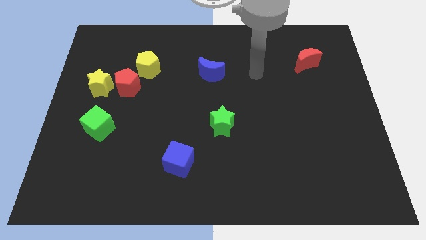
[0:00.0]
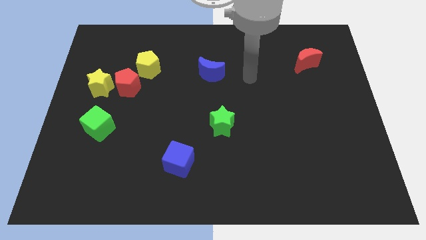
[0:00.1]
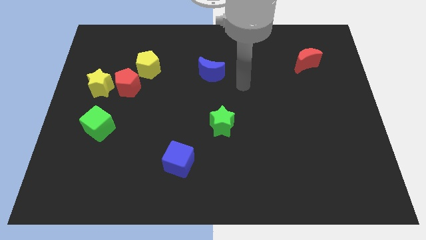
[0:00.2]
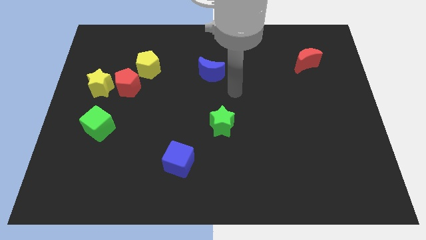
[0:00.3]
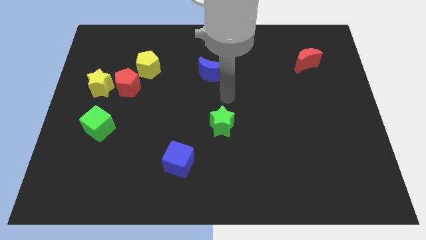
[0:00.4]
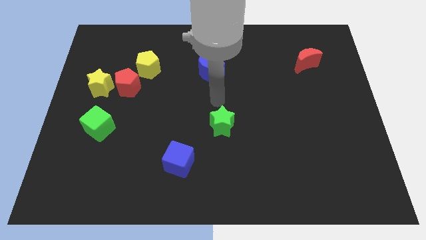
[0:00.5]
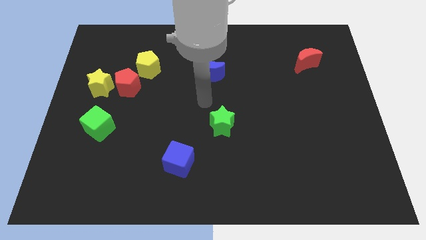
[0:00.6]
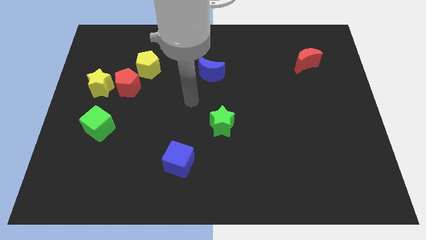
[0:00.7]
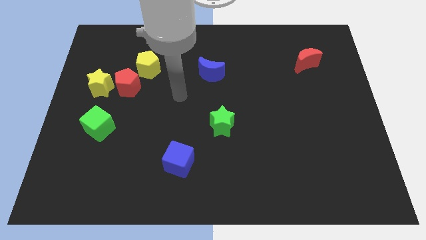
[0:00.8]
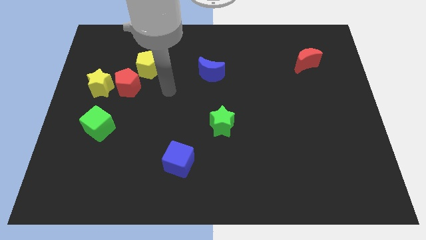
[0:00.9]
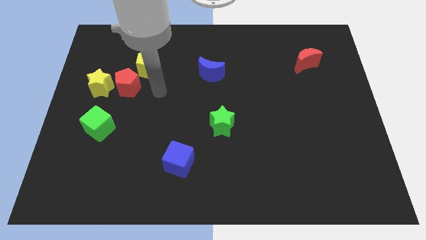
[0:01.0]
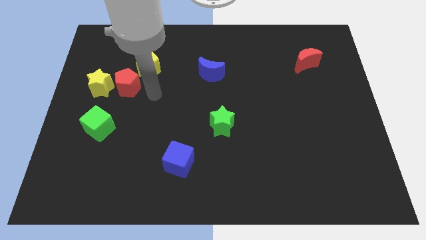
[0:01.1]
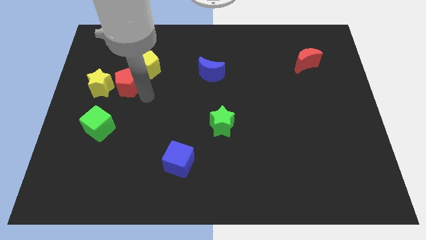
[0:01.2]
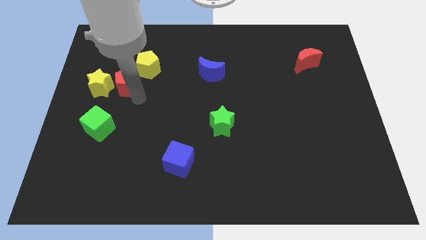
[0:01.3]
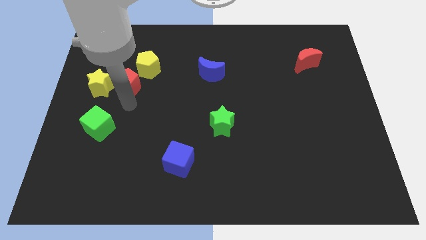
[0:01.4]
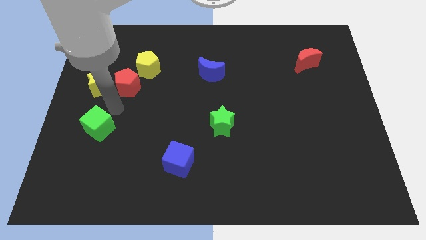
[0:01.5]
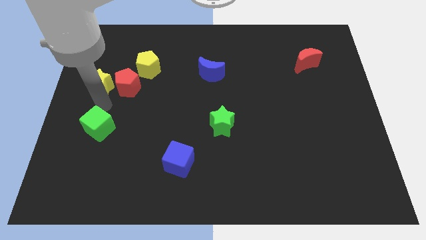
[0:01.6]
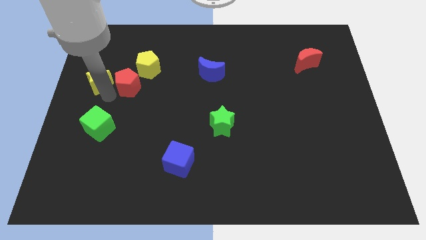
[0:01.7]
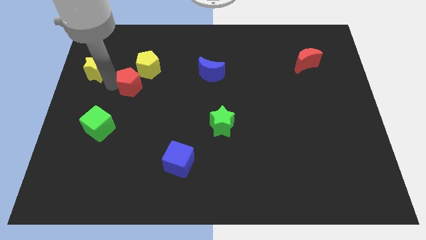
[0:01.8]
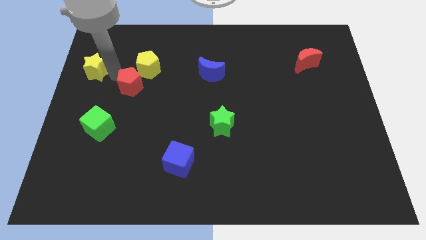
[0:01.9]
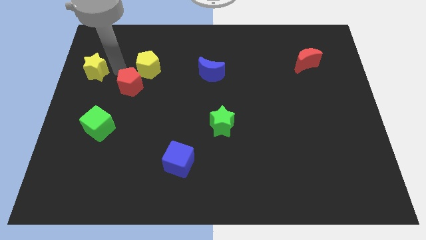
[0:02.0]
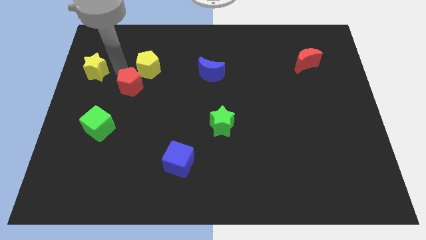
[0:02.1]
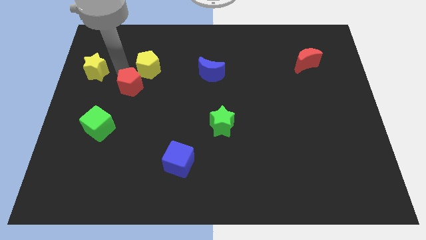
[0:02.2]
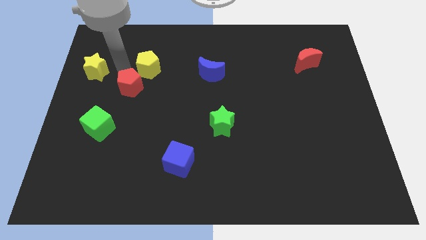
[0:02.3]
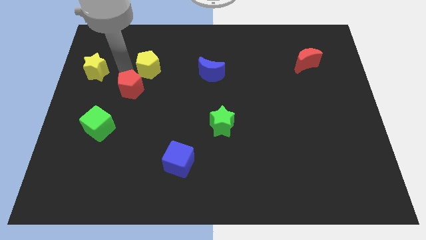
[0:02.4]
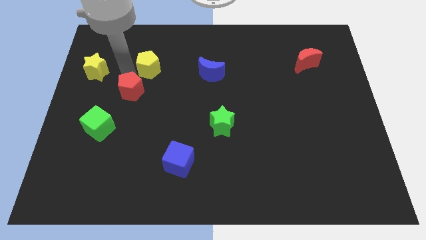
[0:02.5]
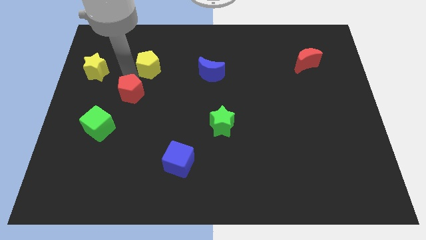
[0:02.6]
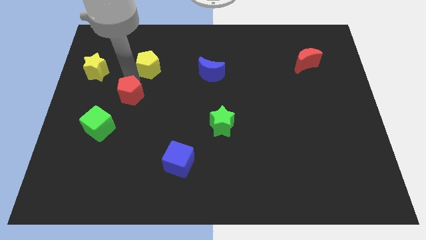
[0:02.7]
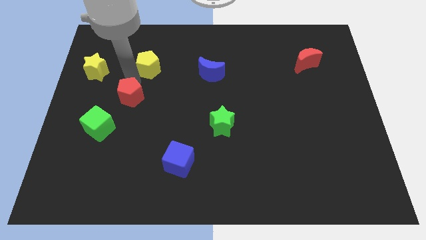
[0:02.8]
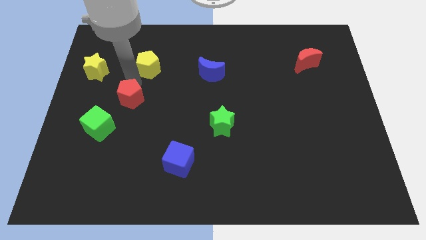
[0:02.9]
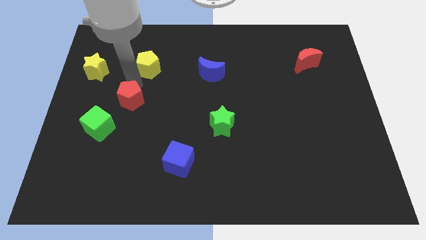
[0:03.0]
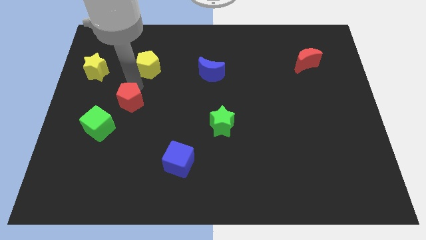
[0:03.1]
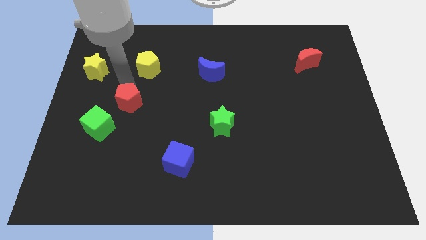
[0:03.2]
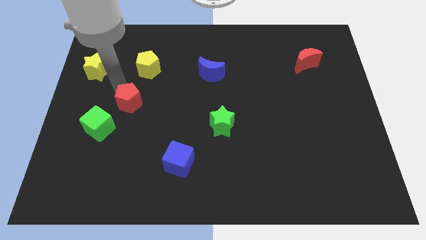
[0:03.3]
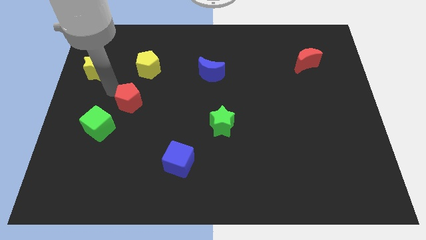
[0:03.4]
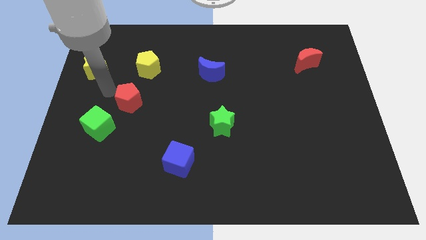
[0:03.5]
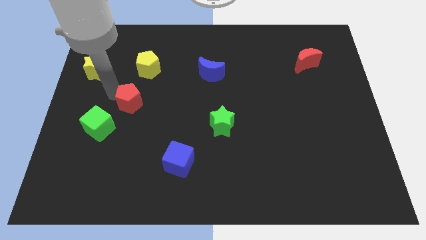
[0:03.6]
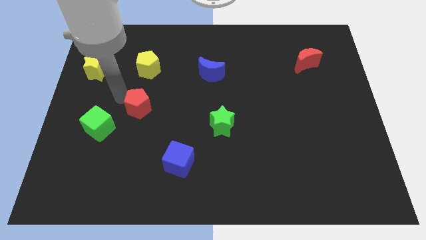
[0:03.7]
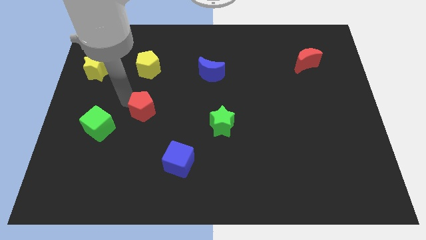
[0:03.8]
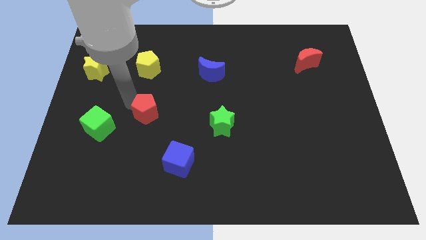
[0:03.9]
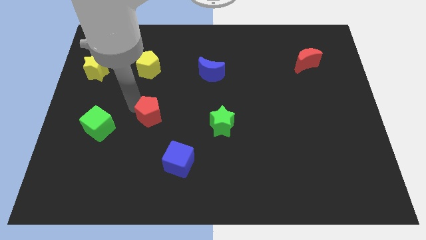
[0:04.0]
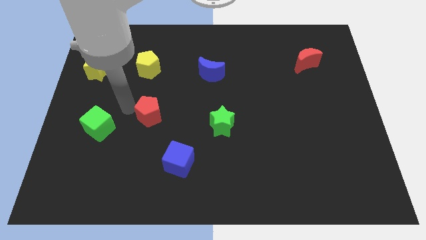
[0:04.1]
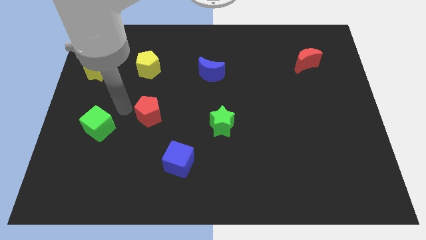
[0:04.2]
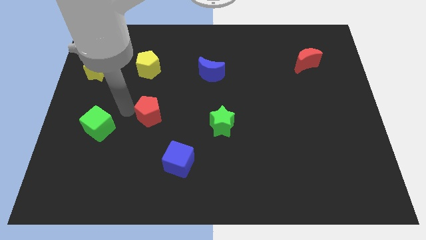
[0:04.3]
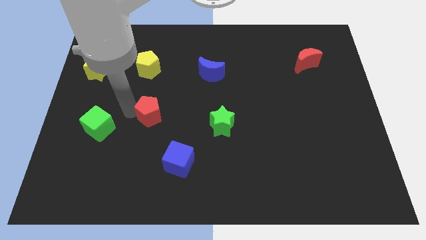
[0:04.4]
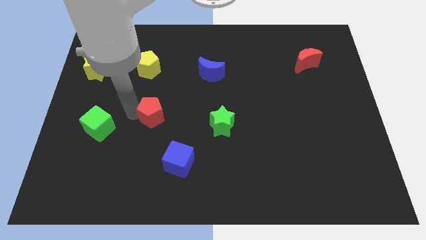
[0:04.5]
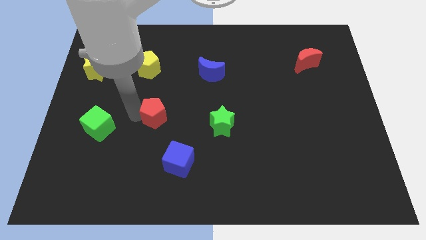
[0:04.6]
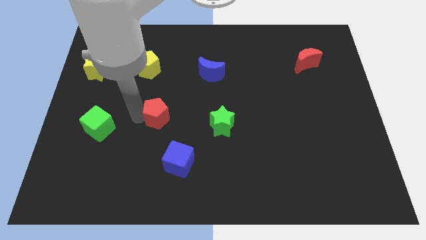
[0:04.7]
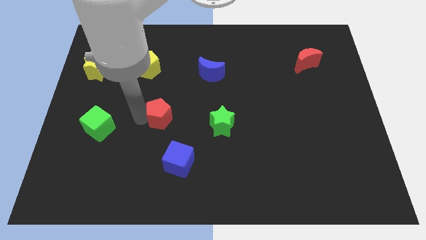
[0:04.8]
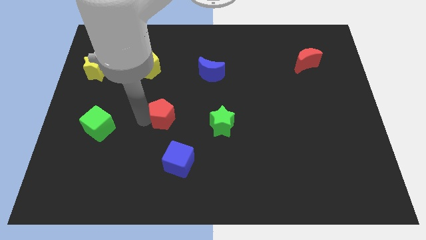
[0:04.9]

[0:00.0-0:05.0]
put the red pentagon above the blue cube

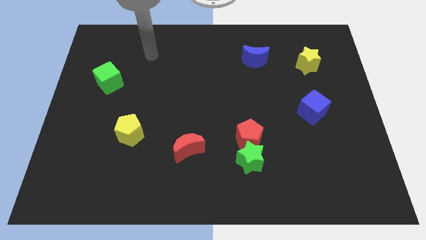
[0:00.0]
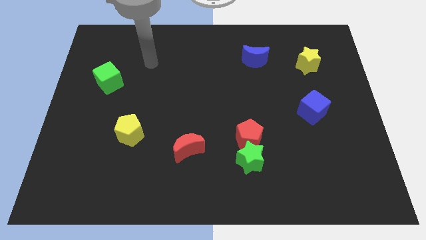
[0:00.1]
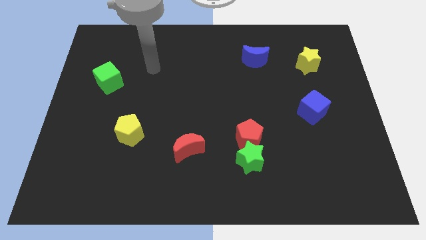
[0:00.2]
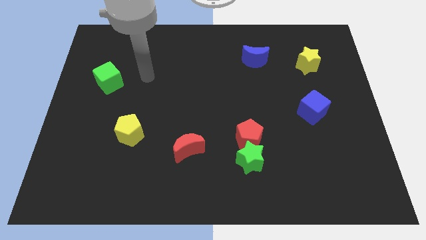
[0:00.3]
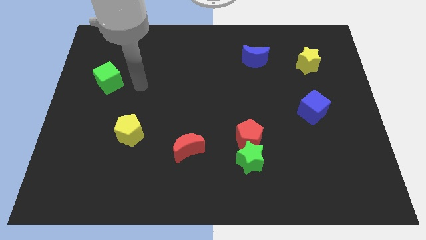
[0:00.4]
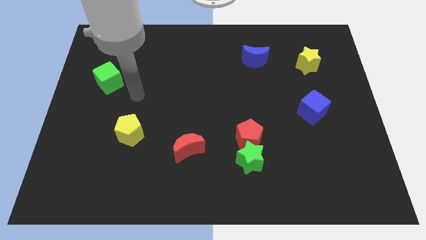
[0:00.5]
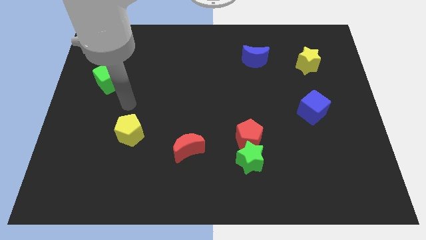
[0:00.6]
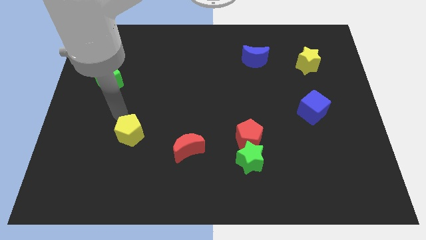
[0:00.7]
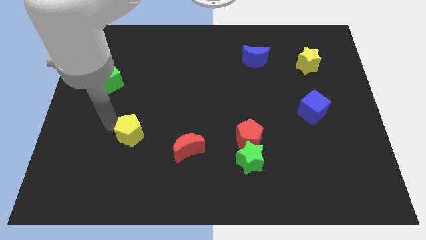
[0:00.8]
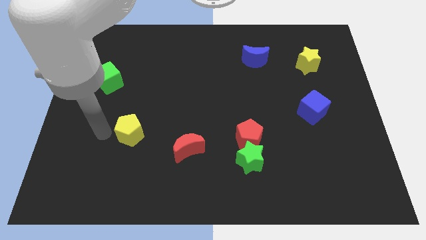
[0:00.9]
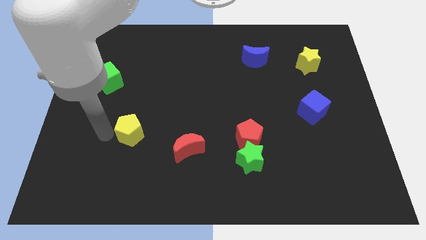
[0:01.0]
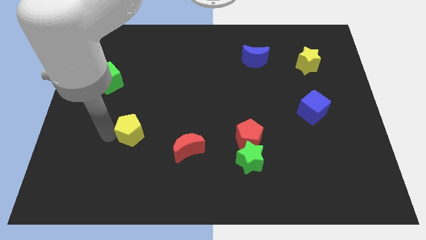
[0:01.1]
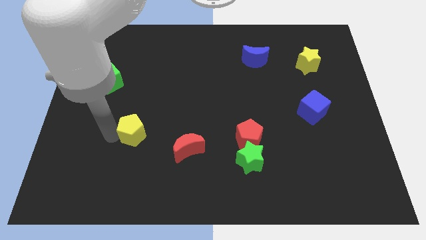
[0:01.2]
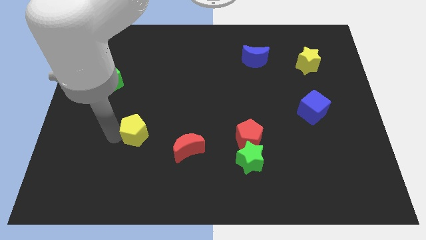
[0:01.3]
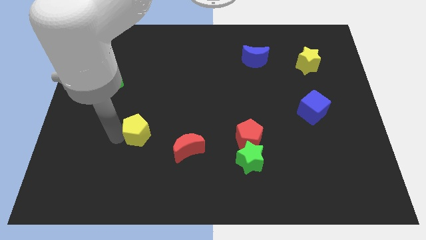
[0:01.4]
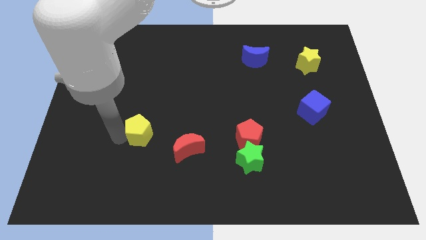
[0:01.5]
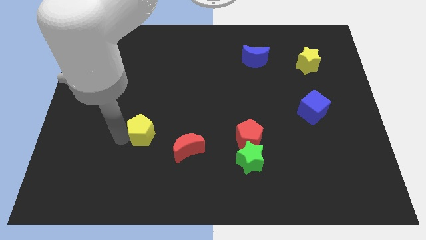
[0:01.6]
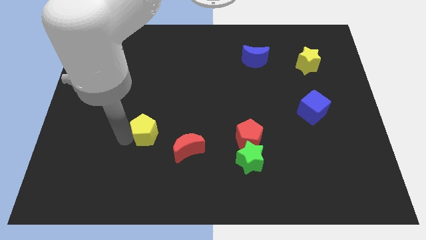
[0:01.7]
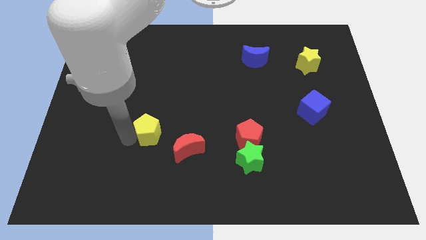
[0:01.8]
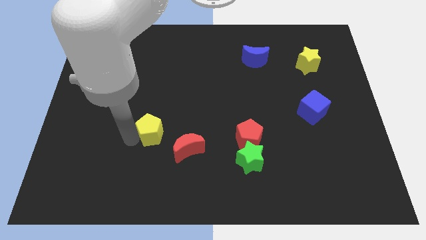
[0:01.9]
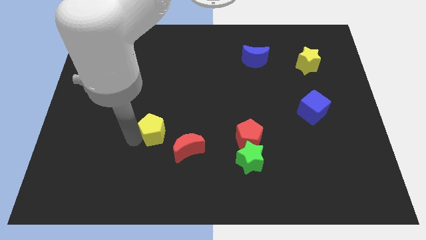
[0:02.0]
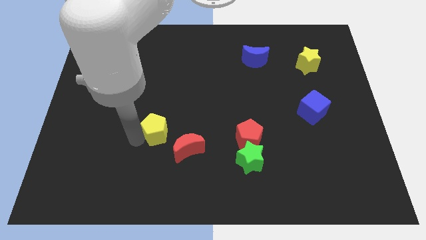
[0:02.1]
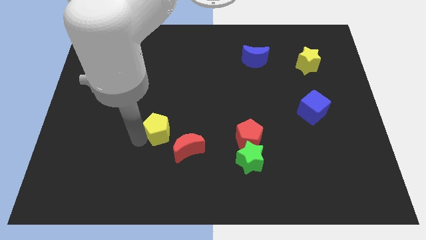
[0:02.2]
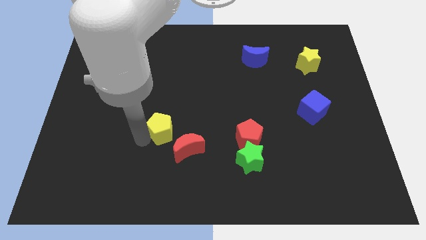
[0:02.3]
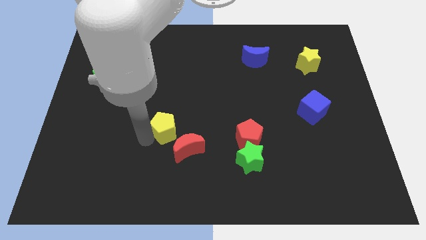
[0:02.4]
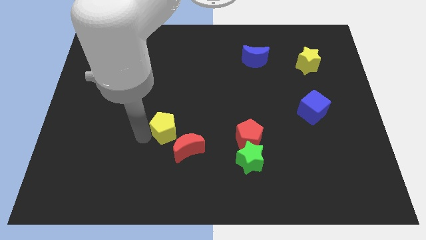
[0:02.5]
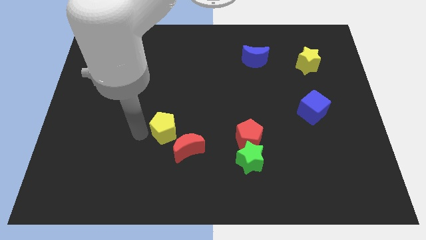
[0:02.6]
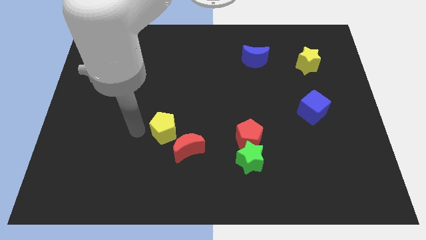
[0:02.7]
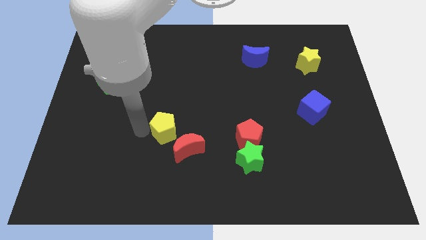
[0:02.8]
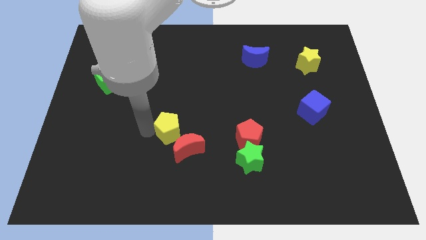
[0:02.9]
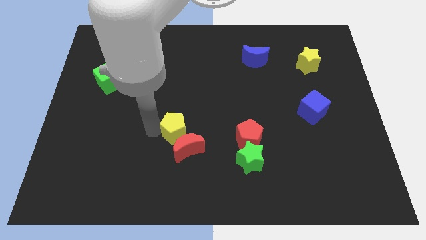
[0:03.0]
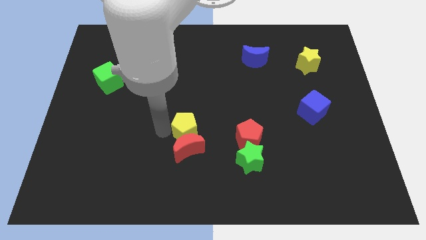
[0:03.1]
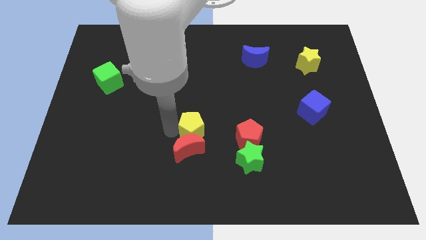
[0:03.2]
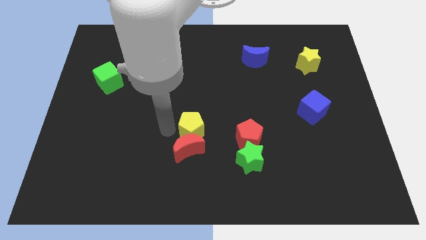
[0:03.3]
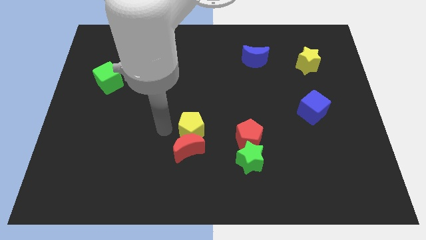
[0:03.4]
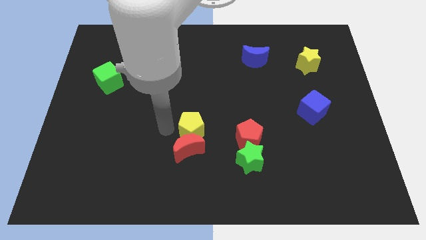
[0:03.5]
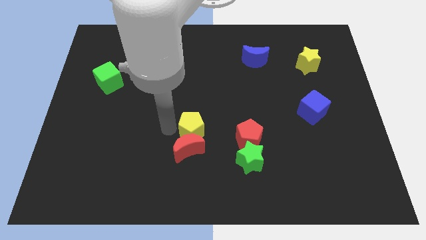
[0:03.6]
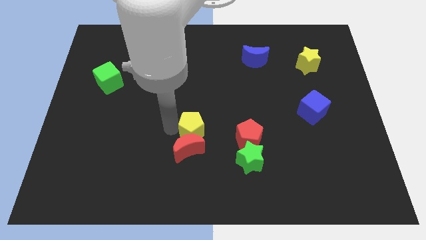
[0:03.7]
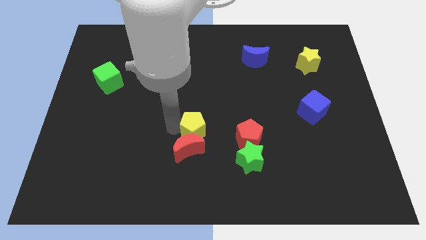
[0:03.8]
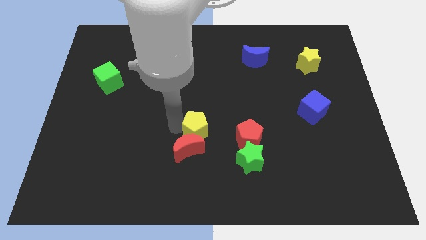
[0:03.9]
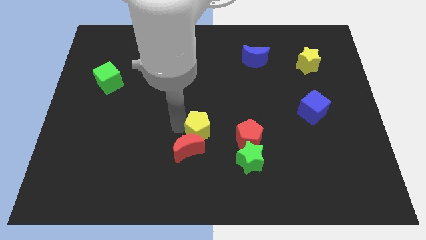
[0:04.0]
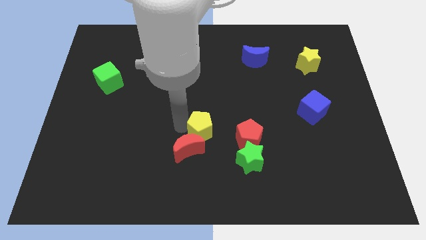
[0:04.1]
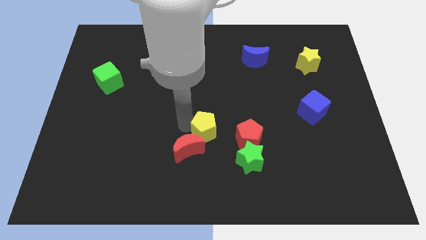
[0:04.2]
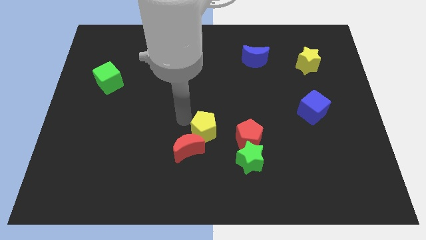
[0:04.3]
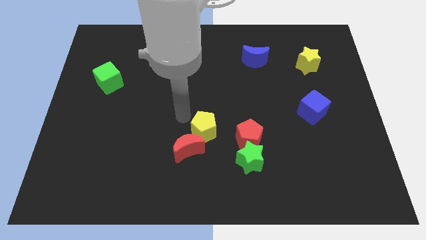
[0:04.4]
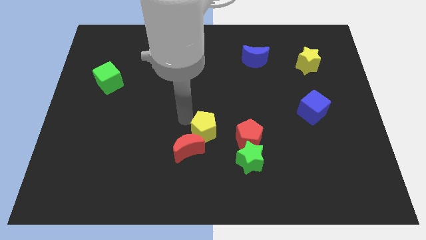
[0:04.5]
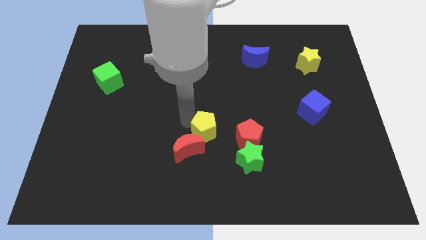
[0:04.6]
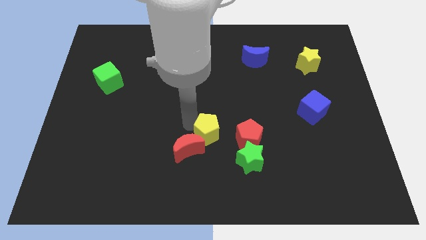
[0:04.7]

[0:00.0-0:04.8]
slide the yellow pentagon to the right of the red moon
